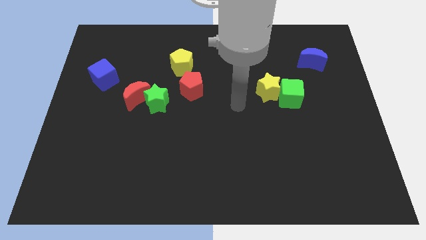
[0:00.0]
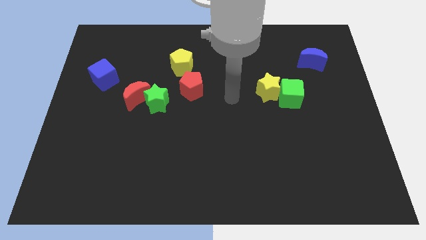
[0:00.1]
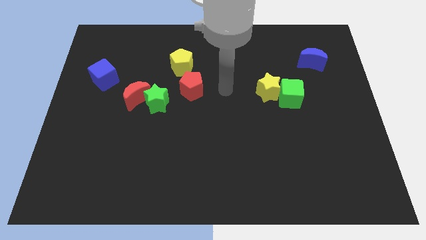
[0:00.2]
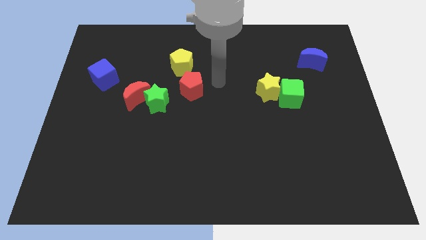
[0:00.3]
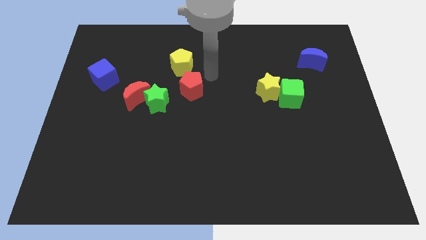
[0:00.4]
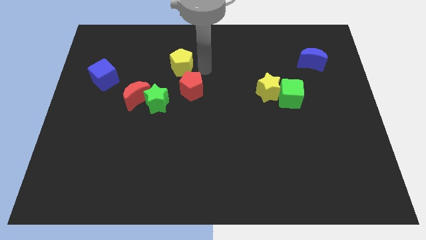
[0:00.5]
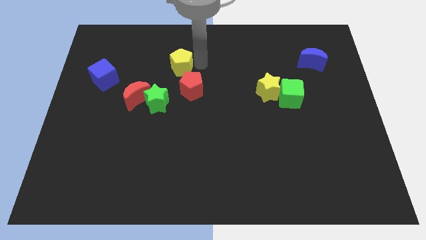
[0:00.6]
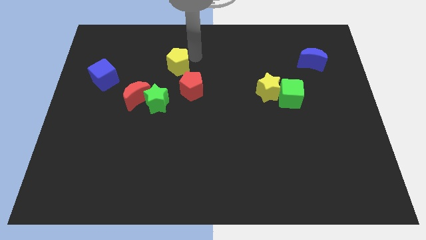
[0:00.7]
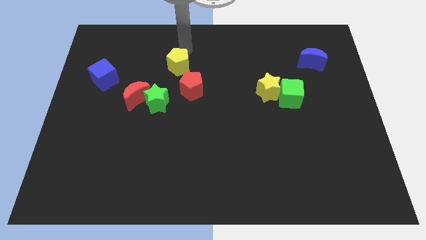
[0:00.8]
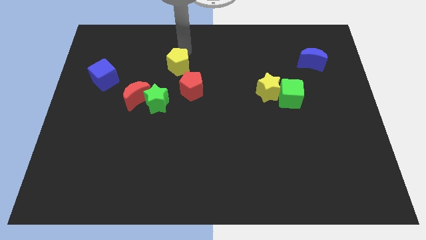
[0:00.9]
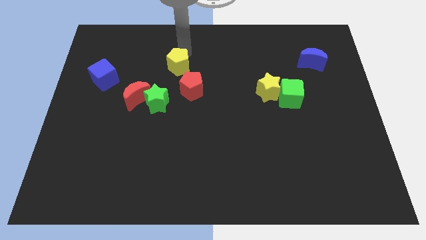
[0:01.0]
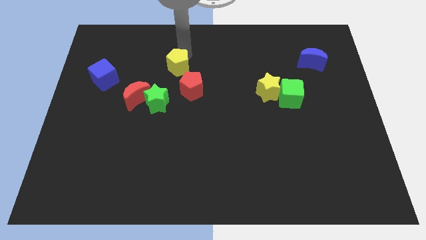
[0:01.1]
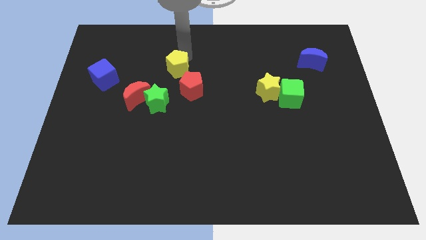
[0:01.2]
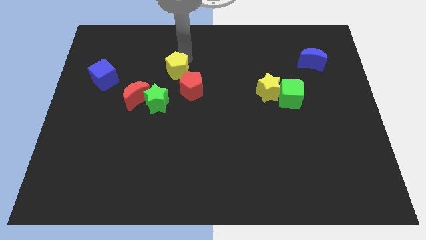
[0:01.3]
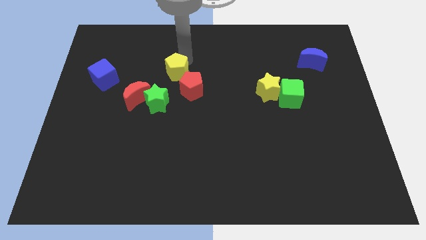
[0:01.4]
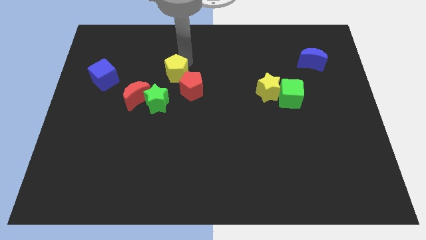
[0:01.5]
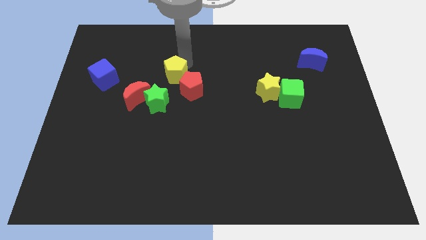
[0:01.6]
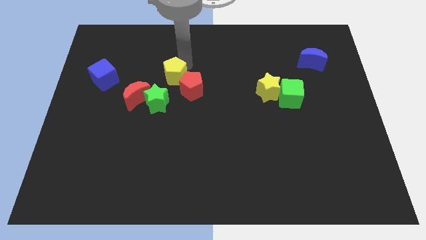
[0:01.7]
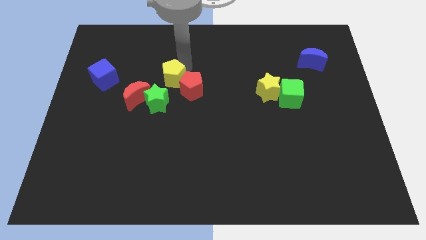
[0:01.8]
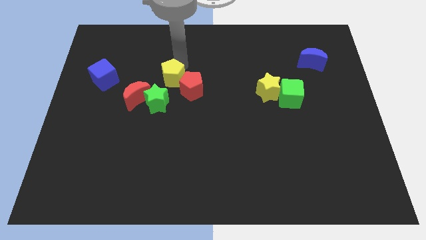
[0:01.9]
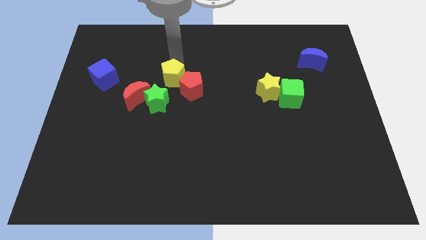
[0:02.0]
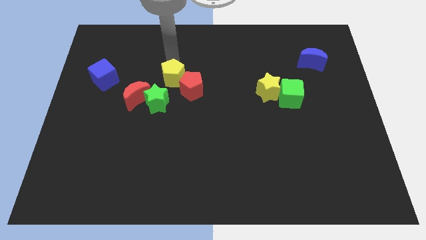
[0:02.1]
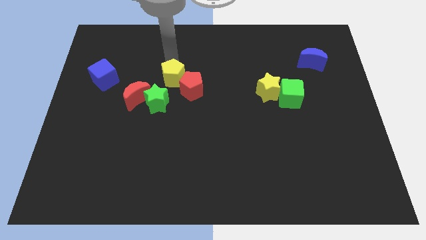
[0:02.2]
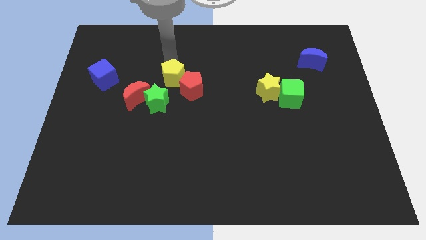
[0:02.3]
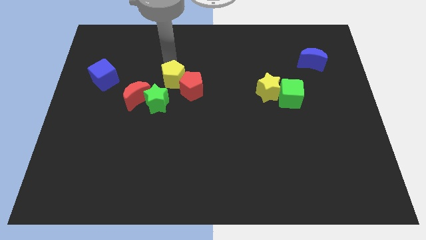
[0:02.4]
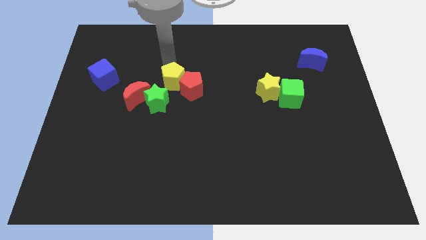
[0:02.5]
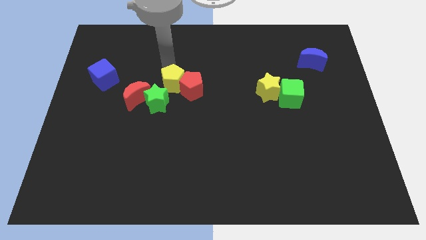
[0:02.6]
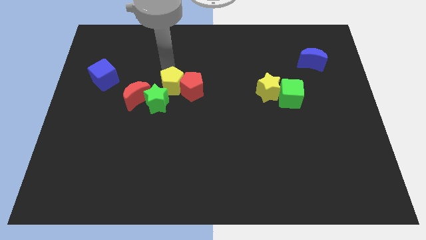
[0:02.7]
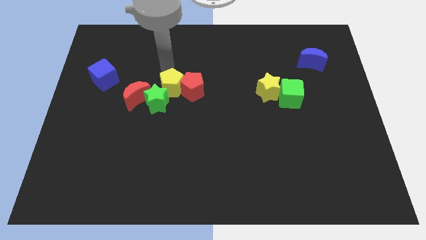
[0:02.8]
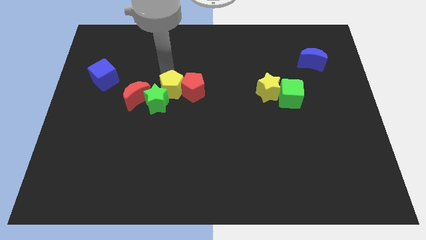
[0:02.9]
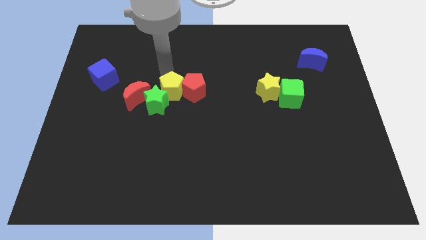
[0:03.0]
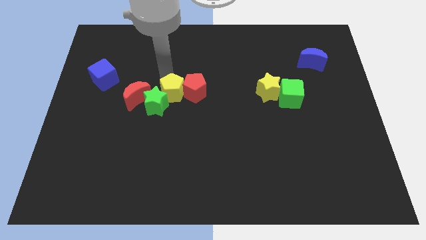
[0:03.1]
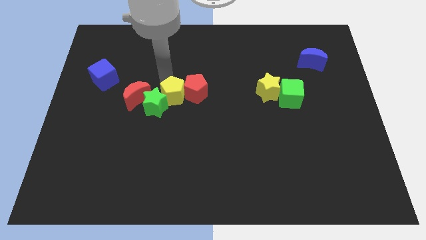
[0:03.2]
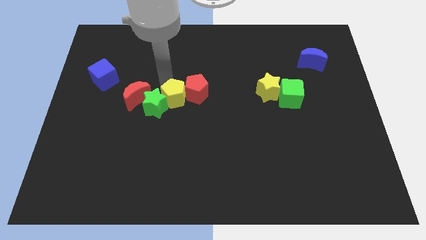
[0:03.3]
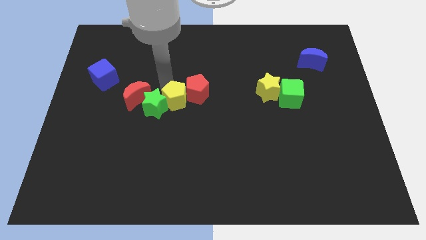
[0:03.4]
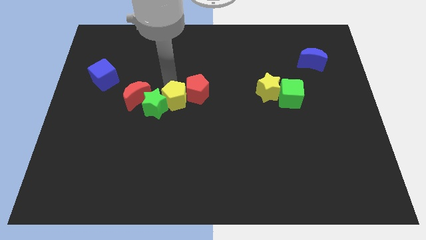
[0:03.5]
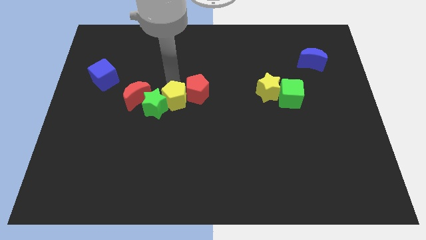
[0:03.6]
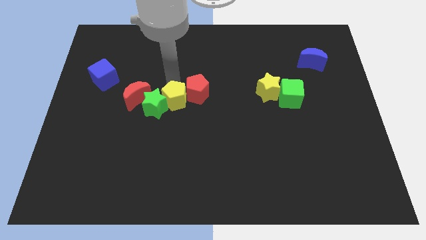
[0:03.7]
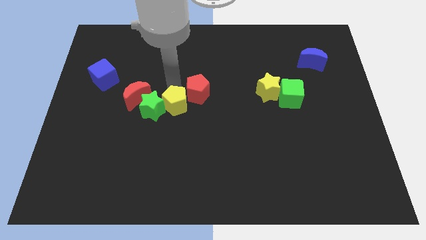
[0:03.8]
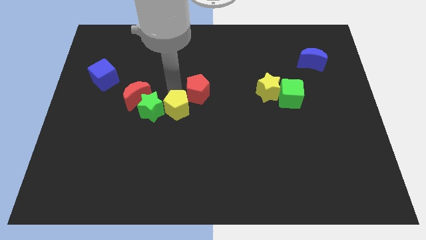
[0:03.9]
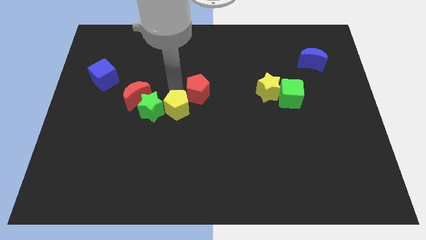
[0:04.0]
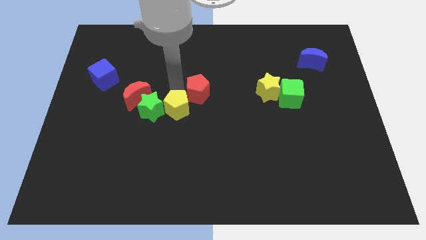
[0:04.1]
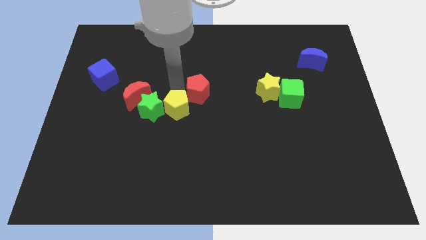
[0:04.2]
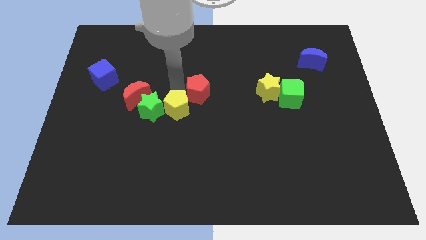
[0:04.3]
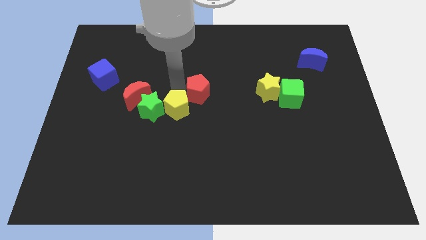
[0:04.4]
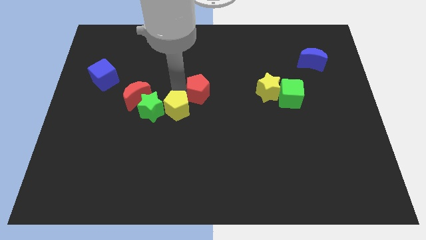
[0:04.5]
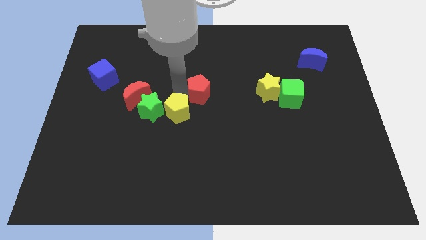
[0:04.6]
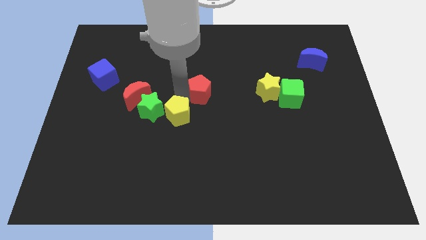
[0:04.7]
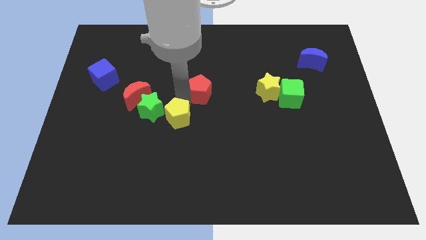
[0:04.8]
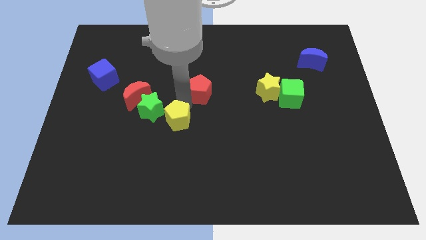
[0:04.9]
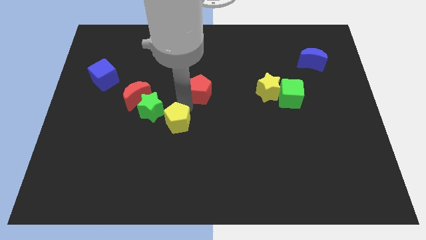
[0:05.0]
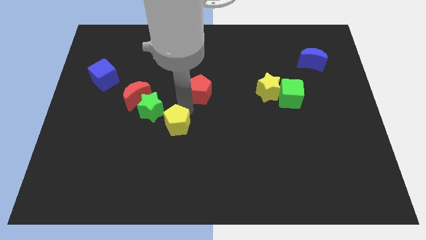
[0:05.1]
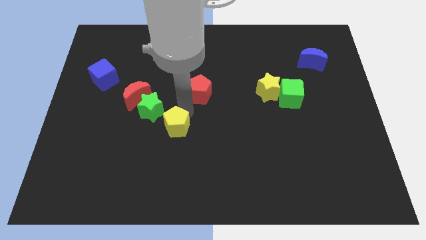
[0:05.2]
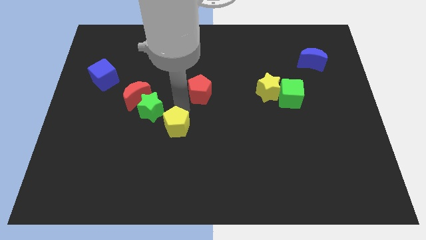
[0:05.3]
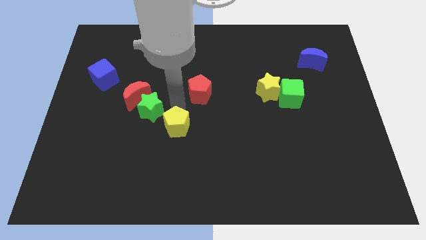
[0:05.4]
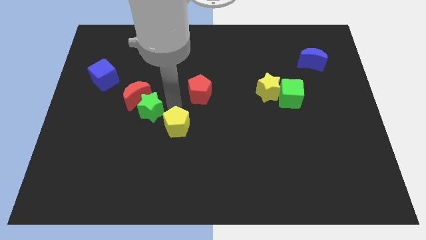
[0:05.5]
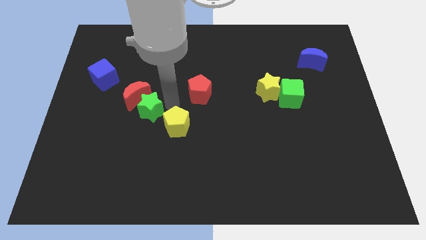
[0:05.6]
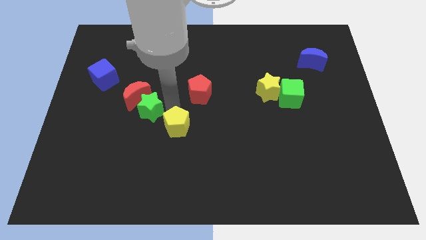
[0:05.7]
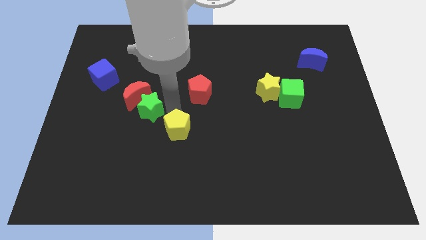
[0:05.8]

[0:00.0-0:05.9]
push the yellow pentagon downwards

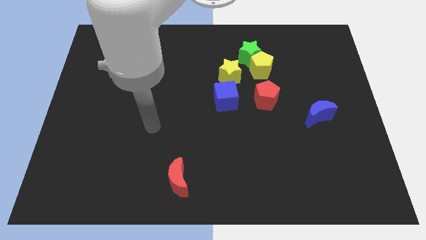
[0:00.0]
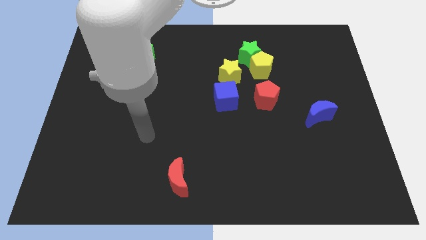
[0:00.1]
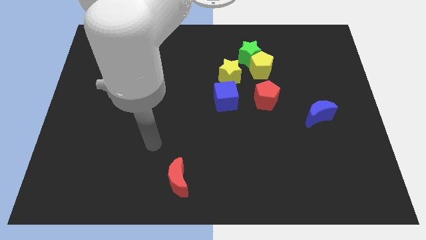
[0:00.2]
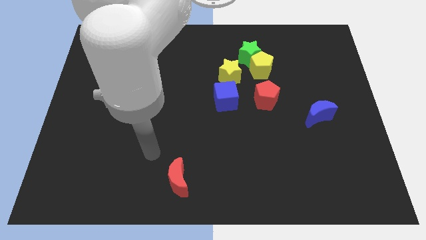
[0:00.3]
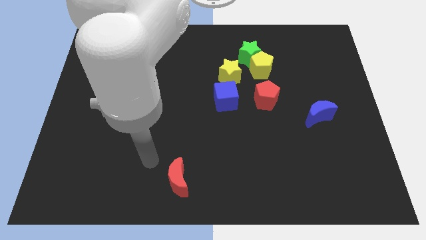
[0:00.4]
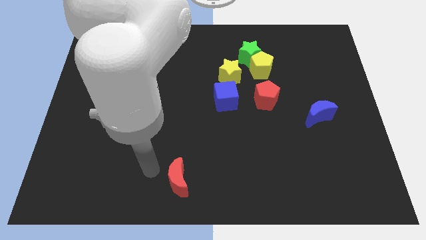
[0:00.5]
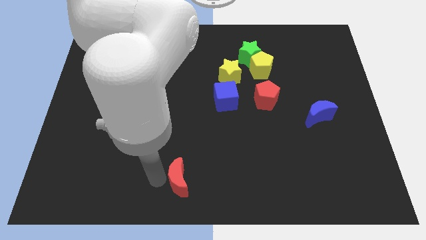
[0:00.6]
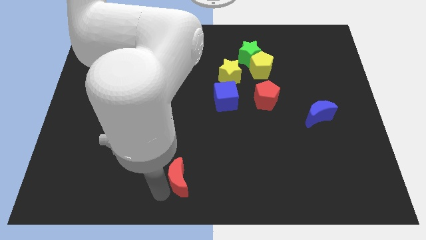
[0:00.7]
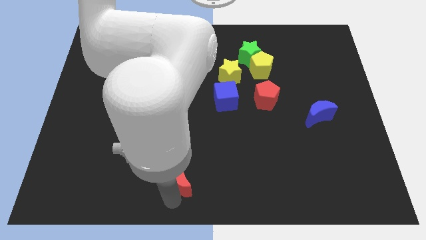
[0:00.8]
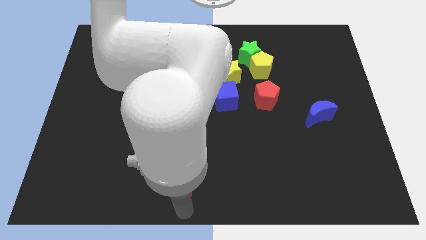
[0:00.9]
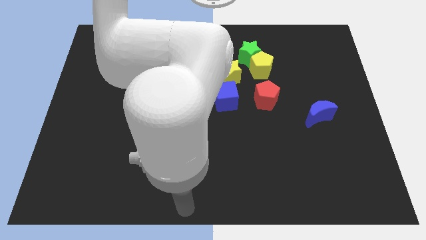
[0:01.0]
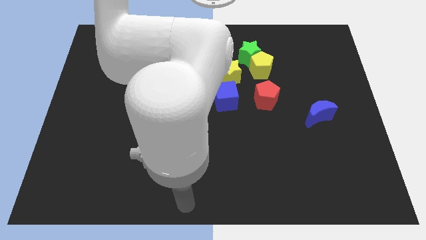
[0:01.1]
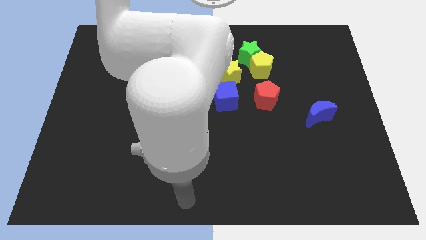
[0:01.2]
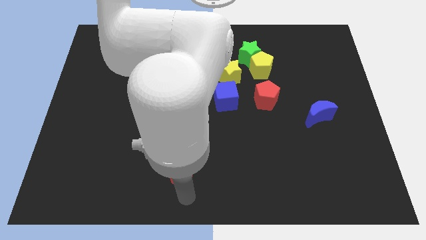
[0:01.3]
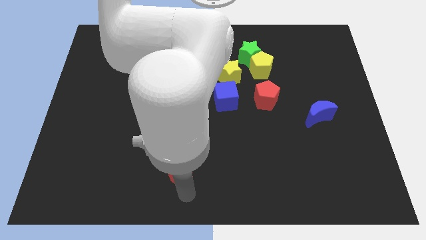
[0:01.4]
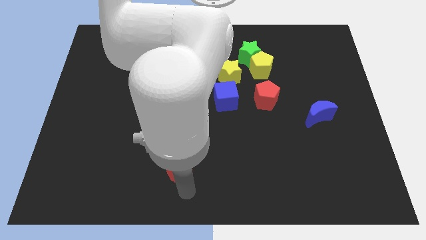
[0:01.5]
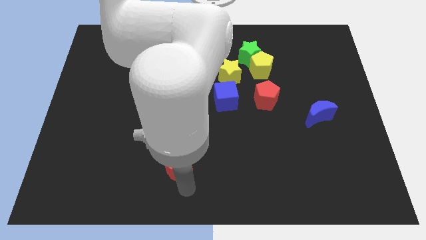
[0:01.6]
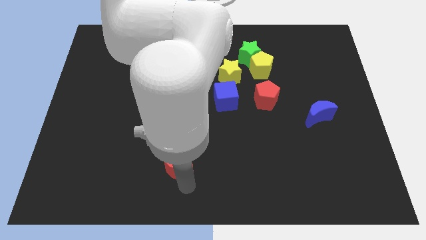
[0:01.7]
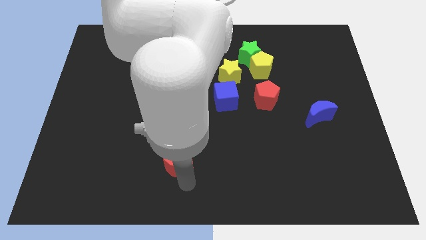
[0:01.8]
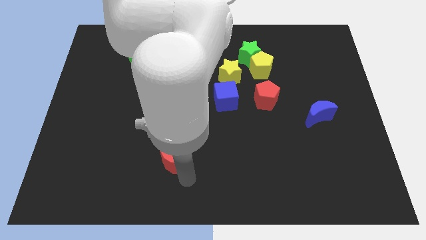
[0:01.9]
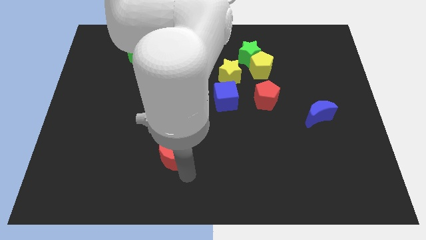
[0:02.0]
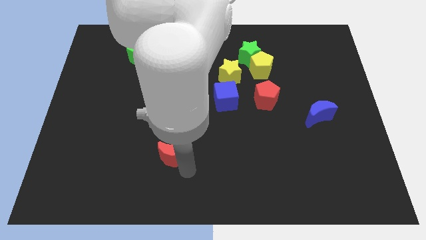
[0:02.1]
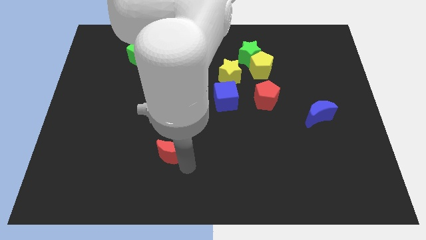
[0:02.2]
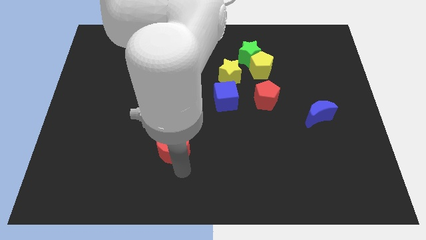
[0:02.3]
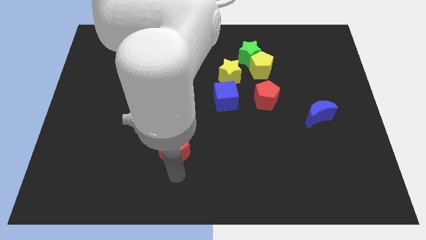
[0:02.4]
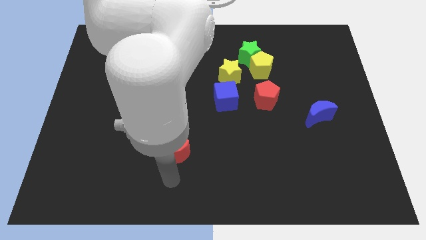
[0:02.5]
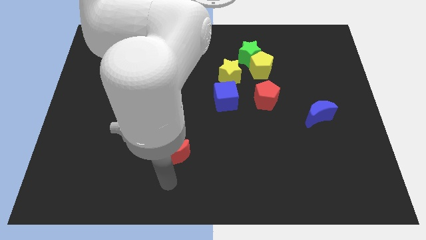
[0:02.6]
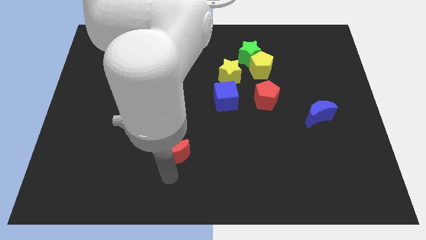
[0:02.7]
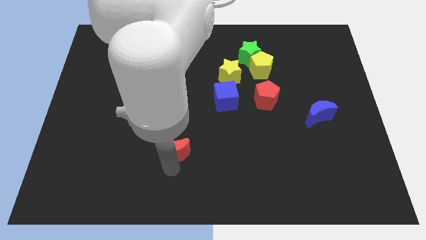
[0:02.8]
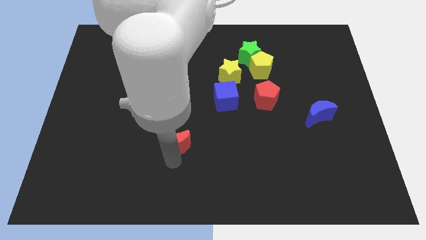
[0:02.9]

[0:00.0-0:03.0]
slide the red moon slightly up
